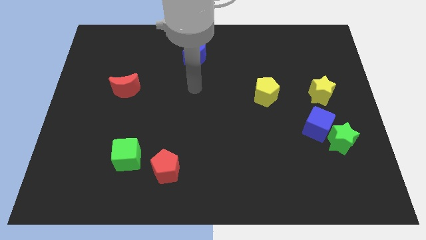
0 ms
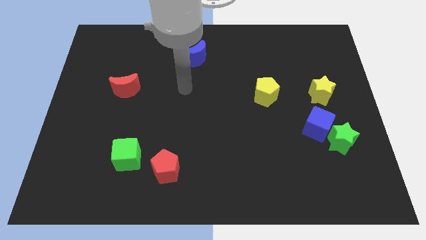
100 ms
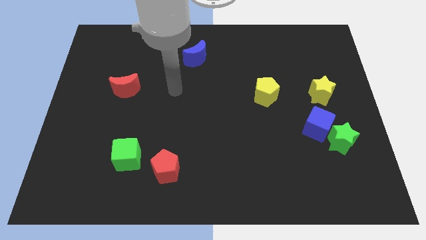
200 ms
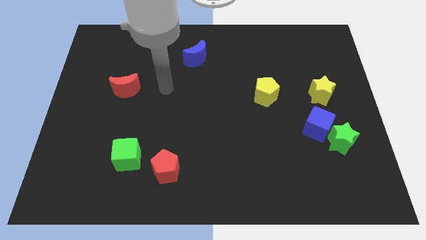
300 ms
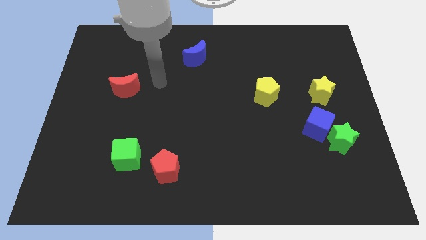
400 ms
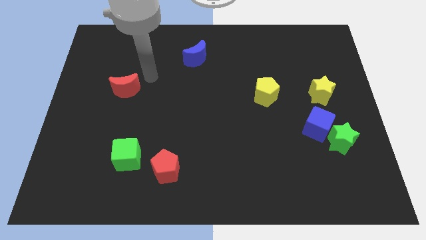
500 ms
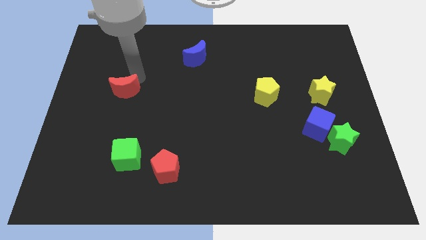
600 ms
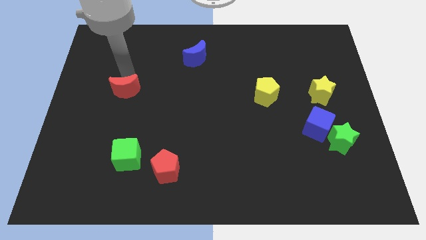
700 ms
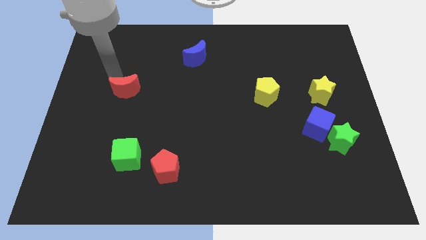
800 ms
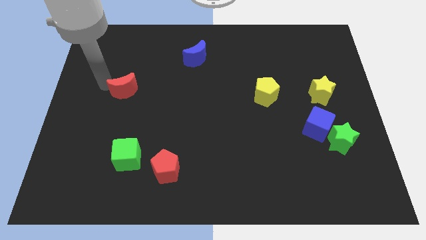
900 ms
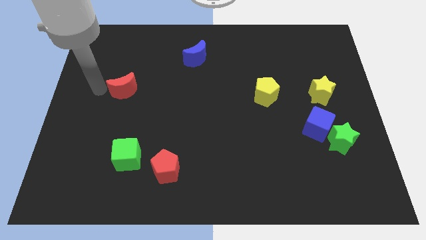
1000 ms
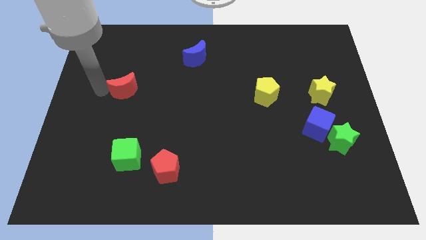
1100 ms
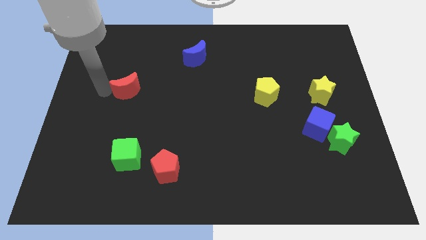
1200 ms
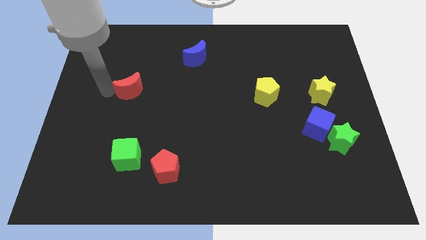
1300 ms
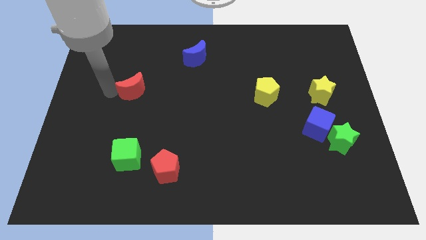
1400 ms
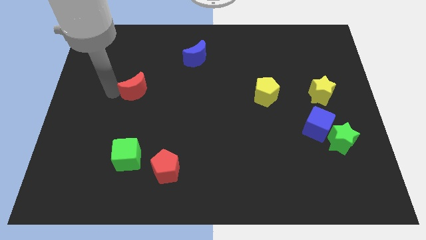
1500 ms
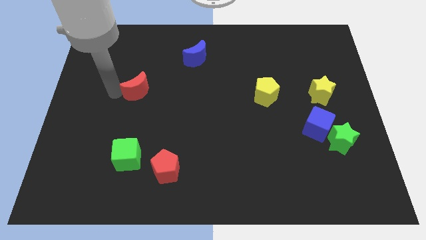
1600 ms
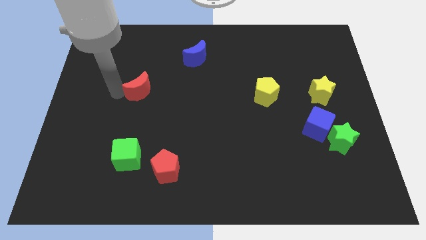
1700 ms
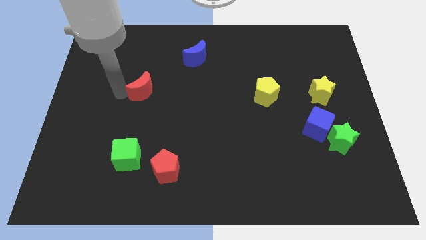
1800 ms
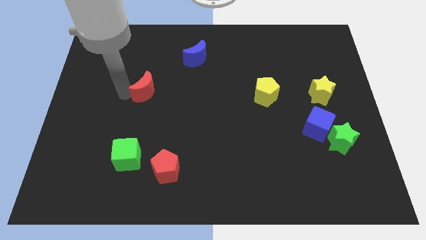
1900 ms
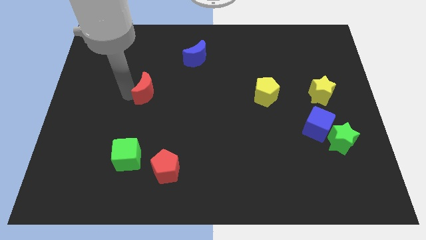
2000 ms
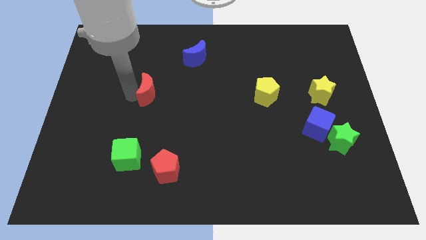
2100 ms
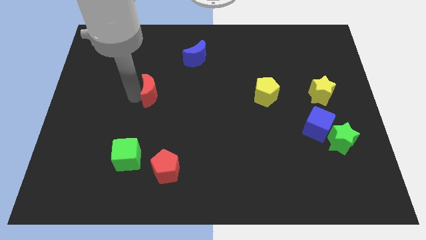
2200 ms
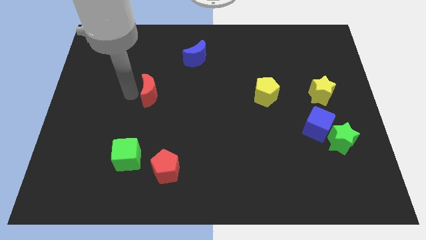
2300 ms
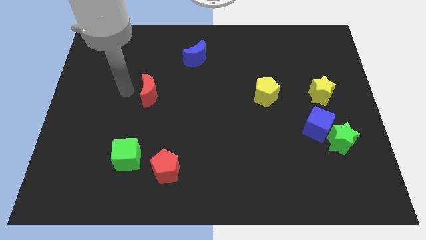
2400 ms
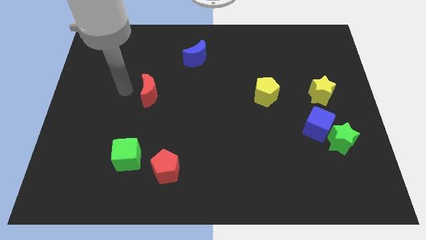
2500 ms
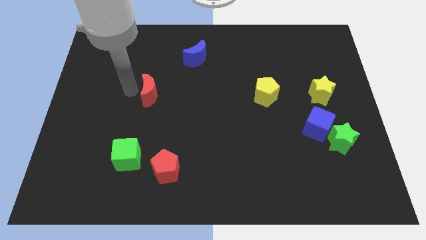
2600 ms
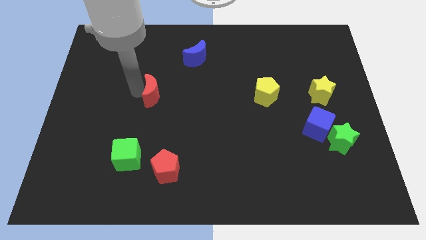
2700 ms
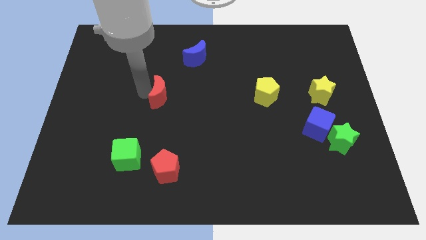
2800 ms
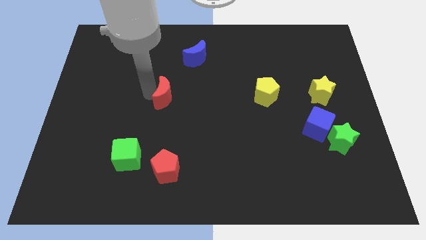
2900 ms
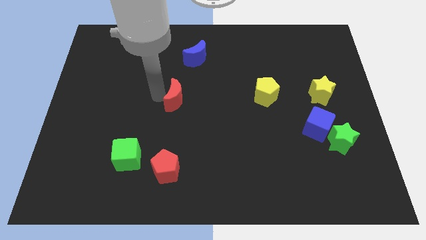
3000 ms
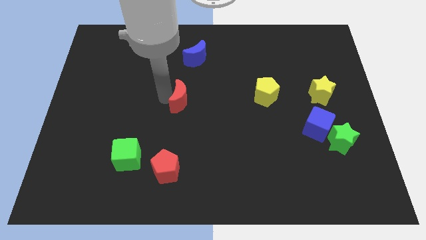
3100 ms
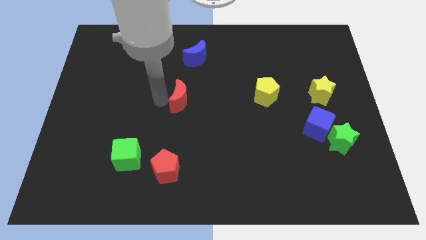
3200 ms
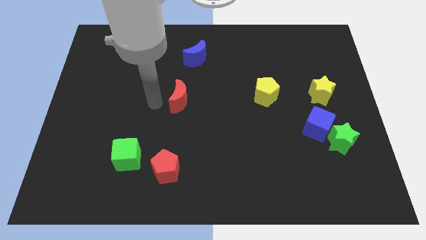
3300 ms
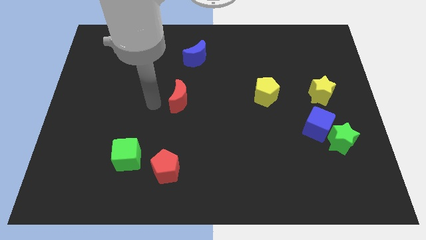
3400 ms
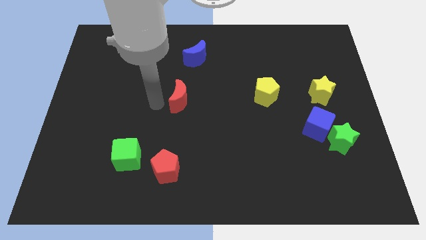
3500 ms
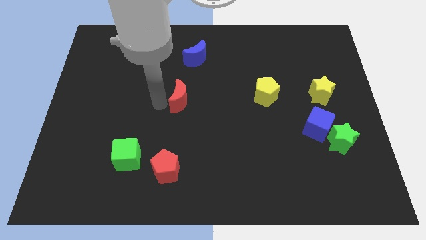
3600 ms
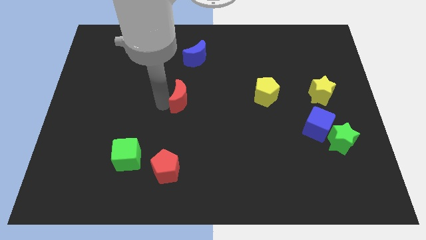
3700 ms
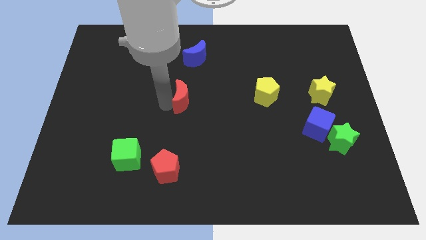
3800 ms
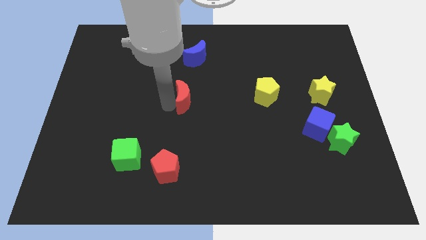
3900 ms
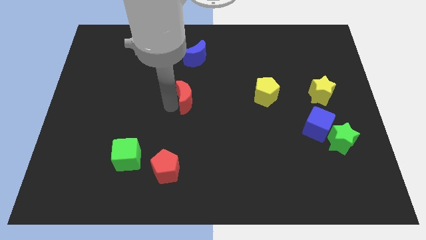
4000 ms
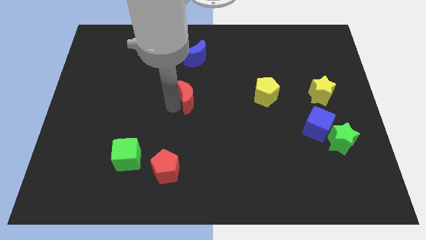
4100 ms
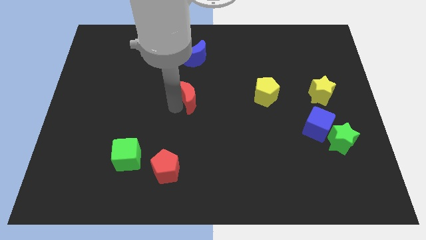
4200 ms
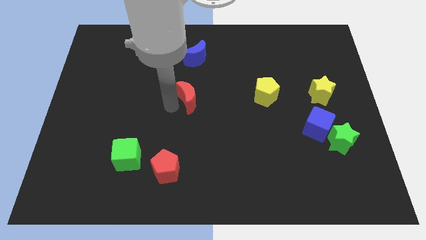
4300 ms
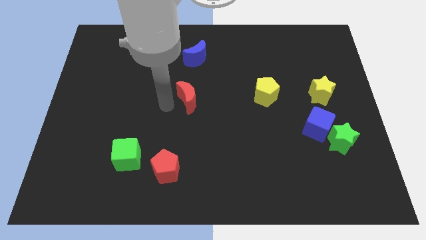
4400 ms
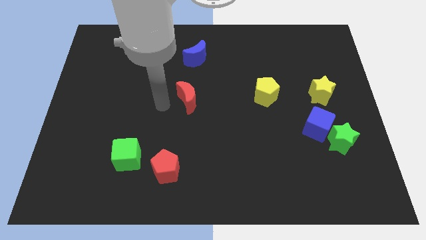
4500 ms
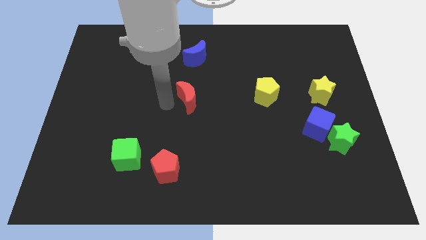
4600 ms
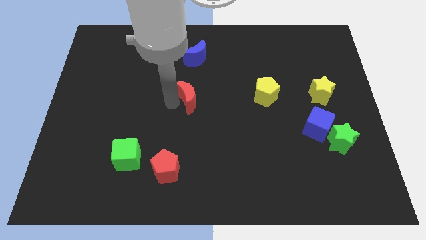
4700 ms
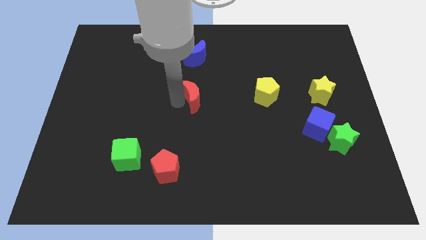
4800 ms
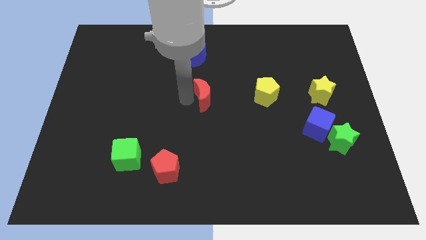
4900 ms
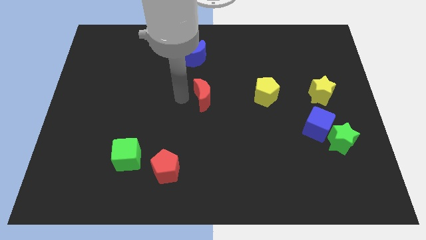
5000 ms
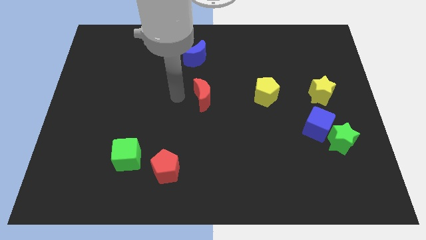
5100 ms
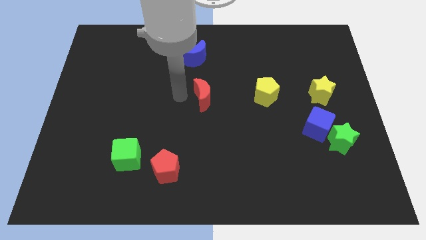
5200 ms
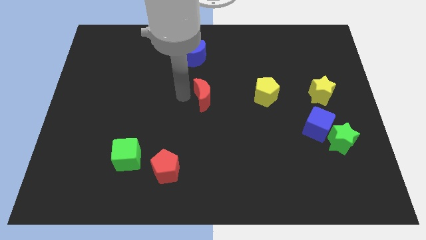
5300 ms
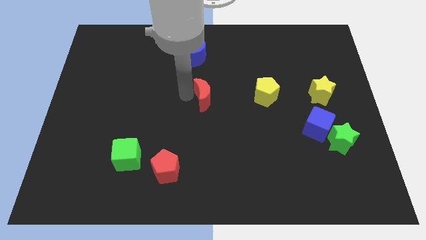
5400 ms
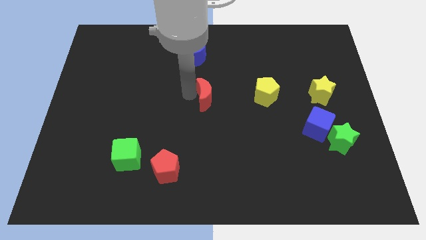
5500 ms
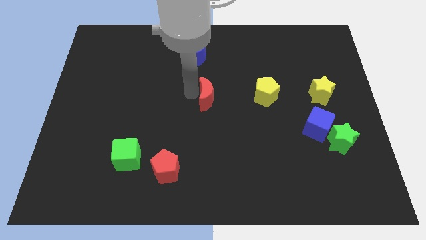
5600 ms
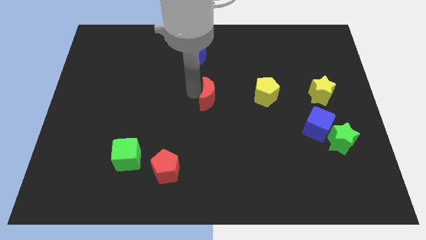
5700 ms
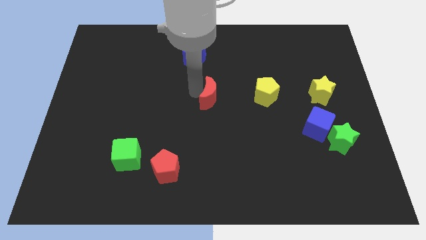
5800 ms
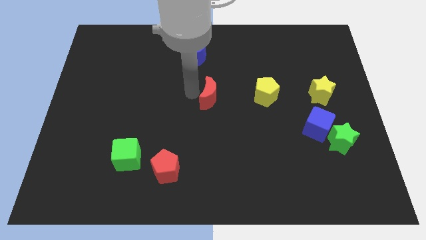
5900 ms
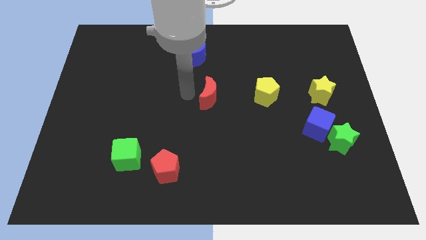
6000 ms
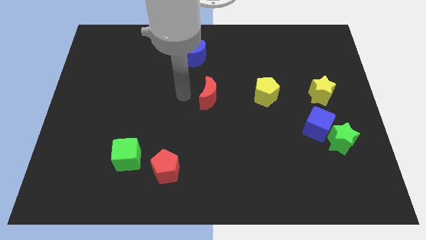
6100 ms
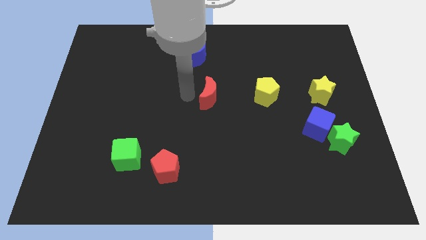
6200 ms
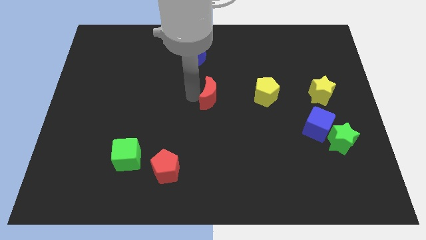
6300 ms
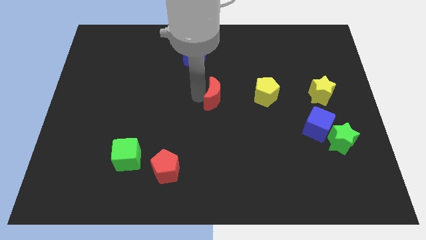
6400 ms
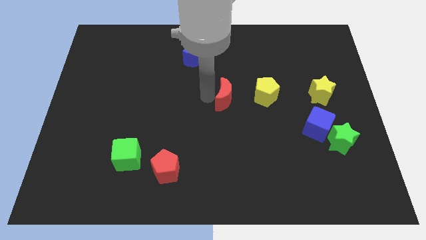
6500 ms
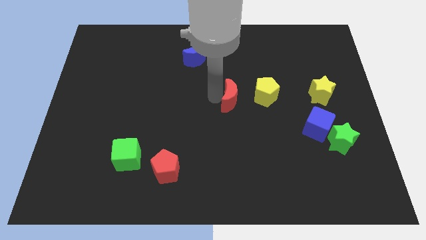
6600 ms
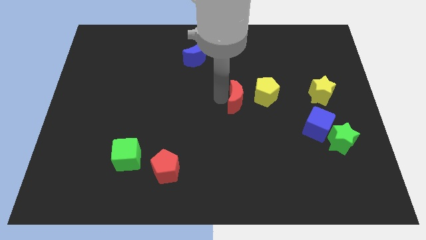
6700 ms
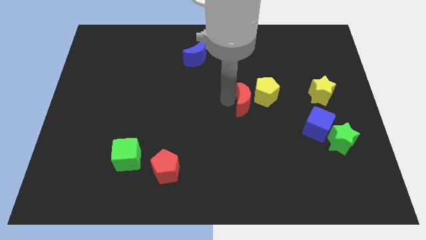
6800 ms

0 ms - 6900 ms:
put the red moon towards the yellow pentagon

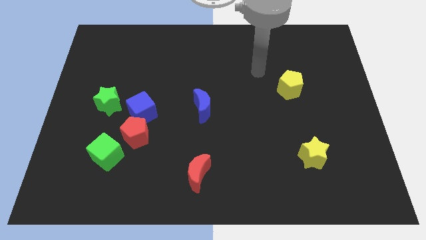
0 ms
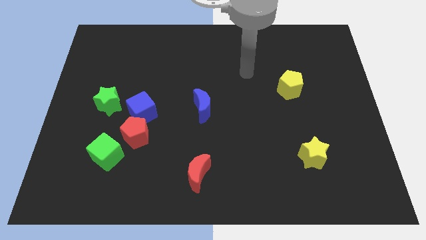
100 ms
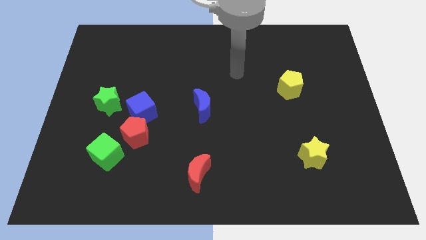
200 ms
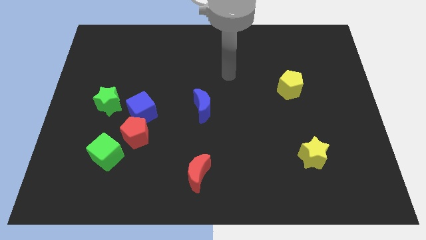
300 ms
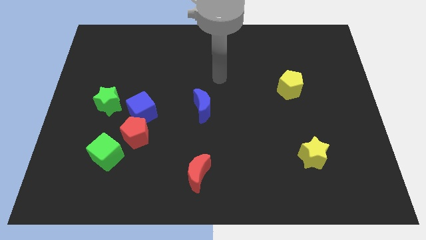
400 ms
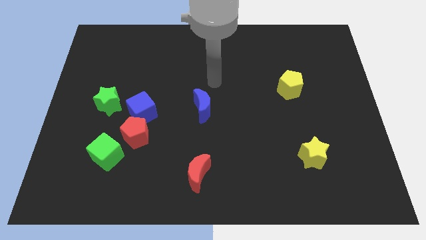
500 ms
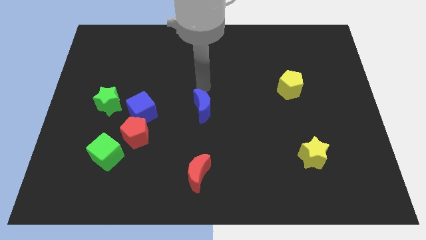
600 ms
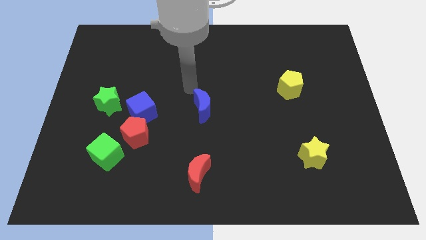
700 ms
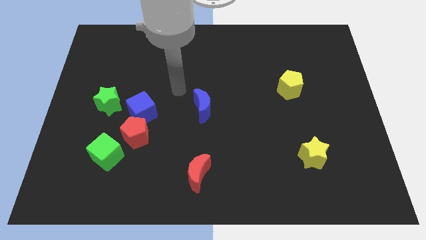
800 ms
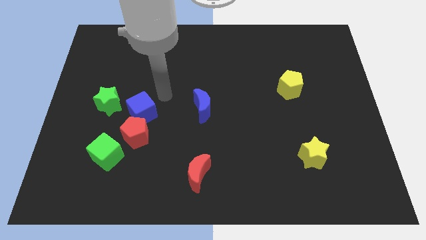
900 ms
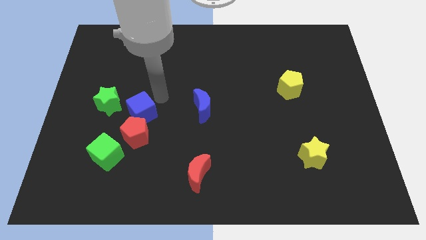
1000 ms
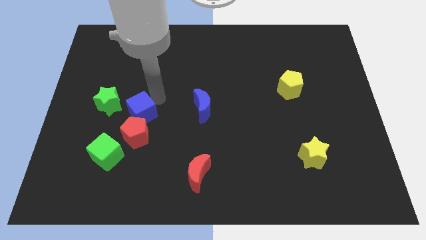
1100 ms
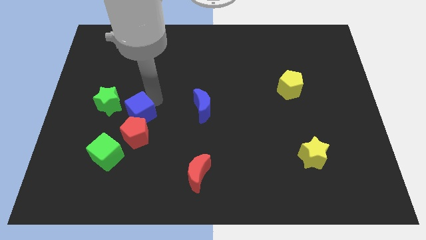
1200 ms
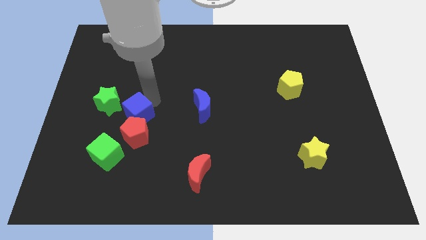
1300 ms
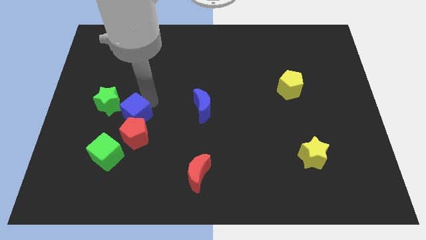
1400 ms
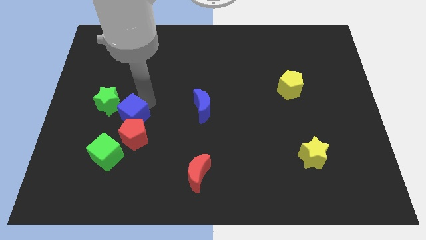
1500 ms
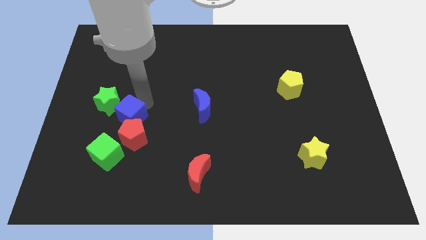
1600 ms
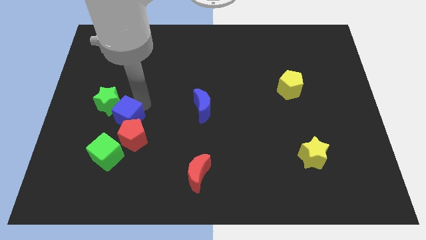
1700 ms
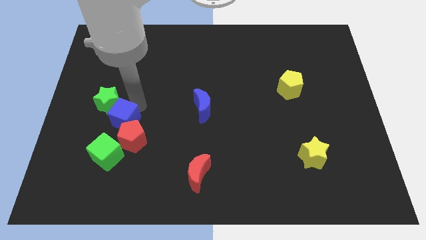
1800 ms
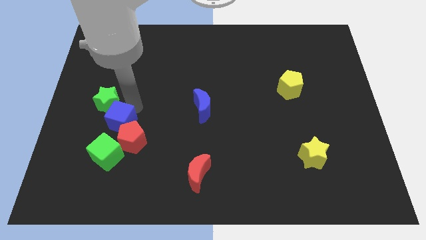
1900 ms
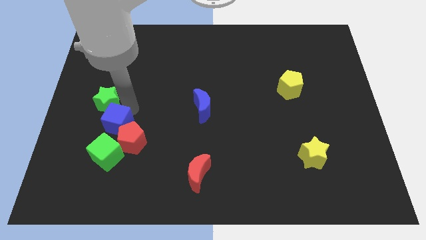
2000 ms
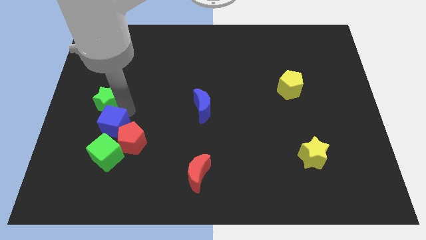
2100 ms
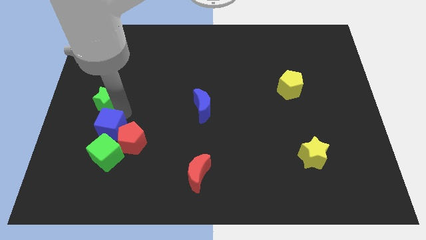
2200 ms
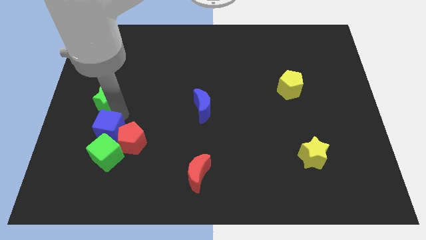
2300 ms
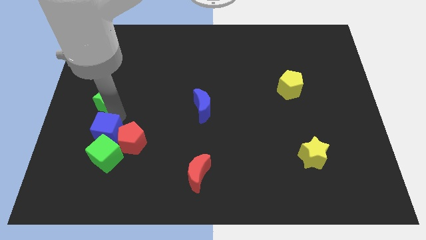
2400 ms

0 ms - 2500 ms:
push the blue cube close to the green cube
